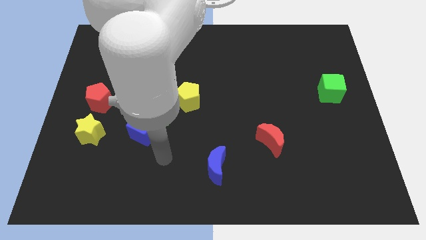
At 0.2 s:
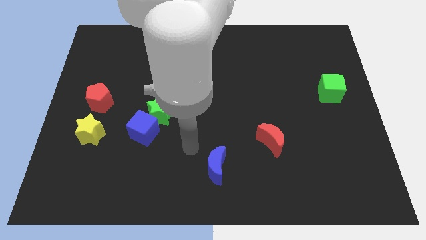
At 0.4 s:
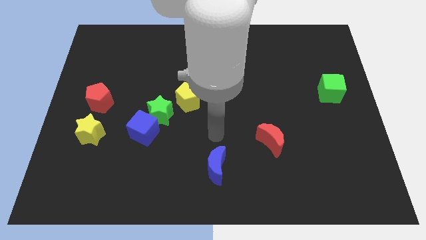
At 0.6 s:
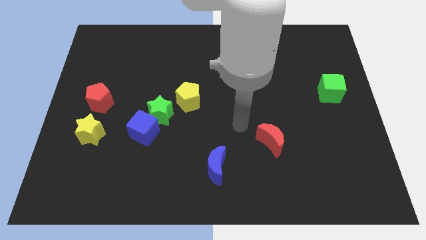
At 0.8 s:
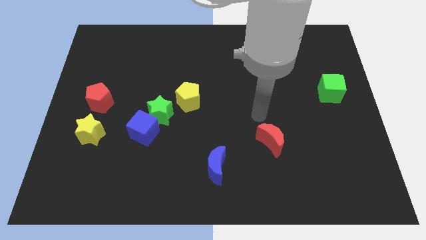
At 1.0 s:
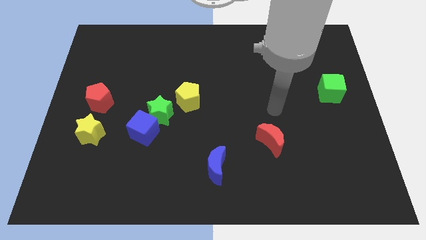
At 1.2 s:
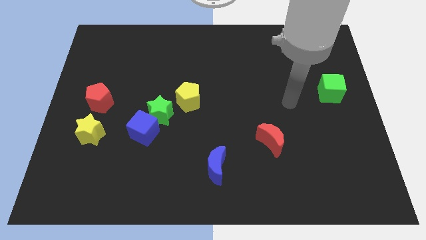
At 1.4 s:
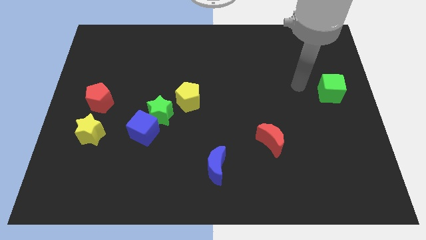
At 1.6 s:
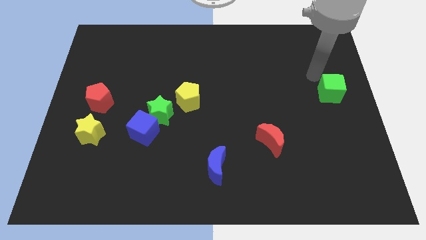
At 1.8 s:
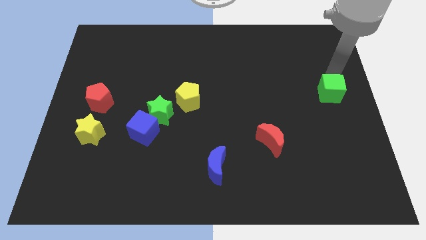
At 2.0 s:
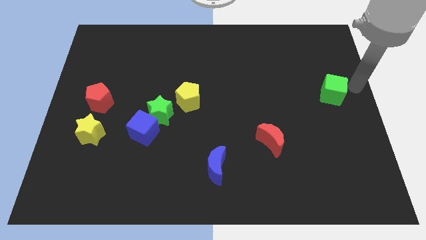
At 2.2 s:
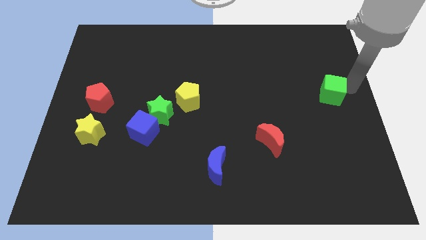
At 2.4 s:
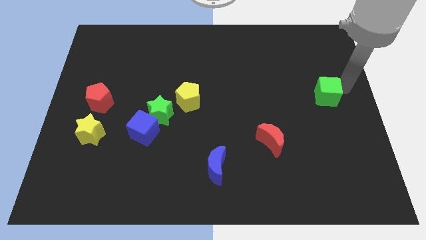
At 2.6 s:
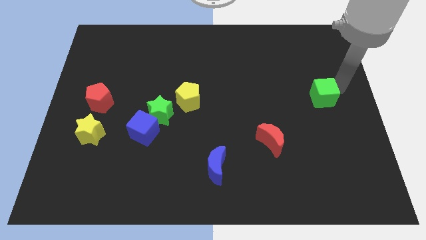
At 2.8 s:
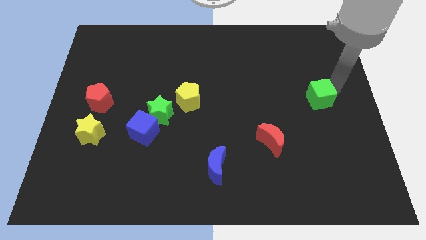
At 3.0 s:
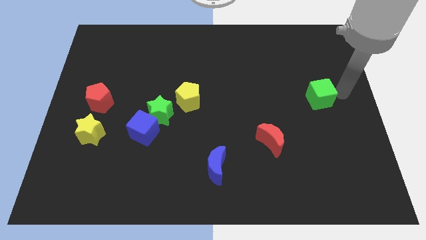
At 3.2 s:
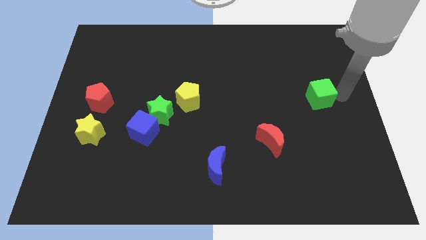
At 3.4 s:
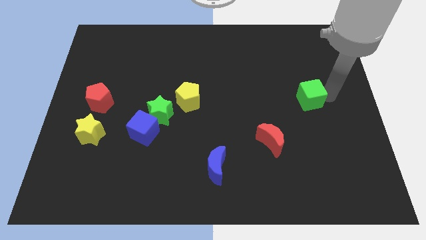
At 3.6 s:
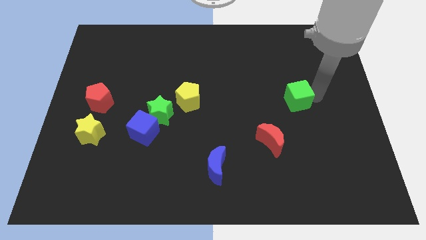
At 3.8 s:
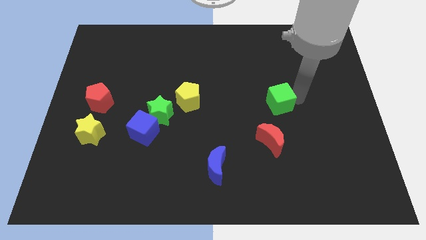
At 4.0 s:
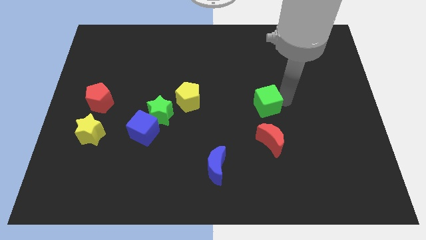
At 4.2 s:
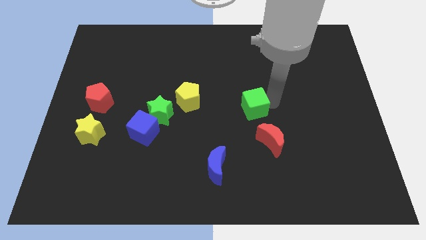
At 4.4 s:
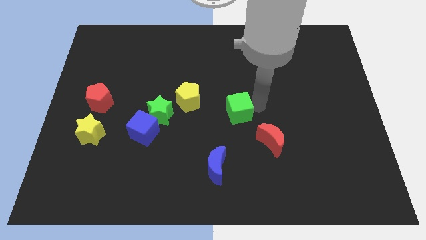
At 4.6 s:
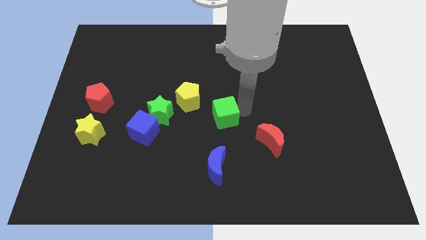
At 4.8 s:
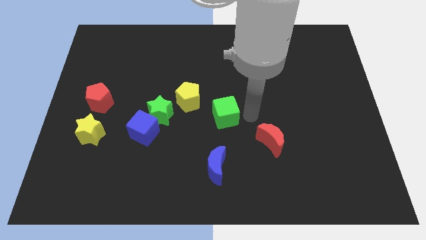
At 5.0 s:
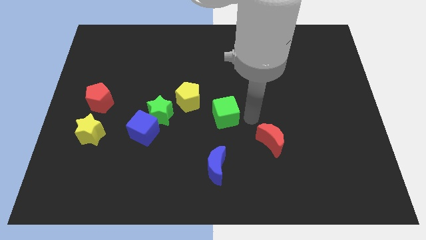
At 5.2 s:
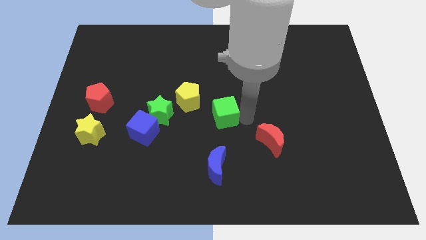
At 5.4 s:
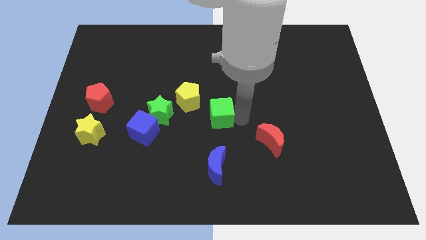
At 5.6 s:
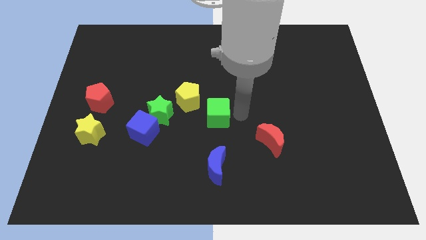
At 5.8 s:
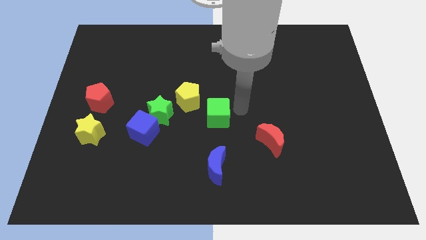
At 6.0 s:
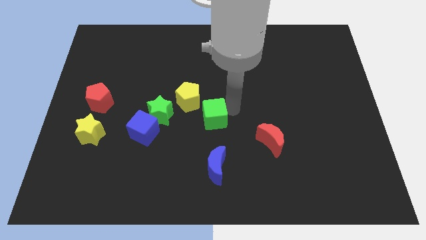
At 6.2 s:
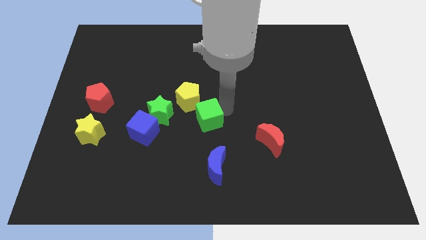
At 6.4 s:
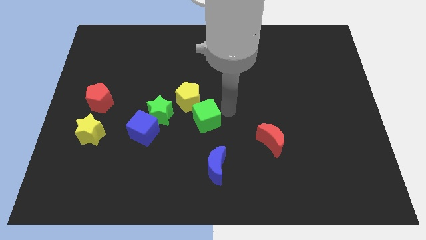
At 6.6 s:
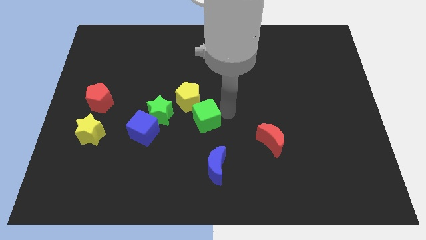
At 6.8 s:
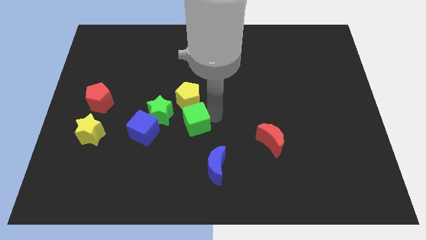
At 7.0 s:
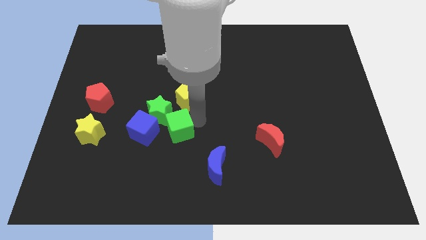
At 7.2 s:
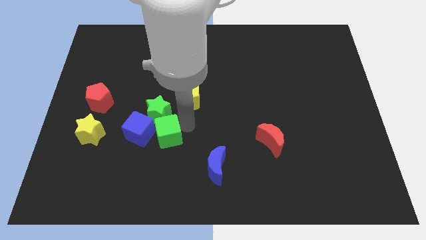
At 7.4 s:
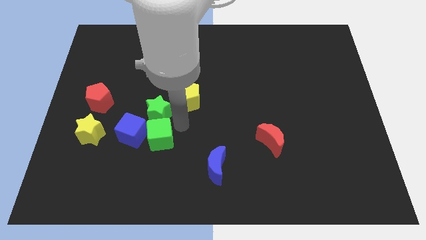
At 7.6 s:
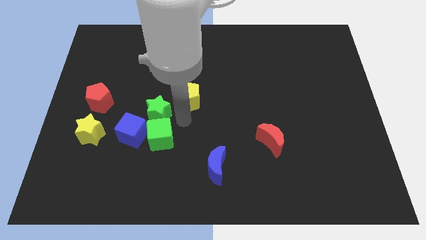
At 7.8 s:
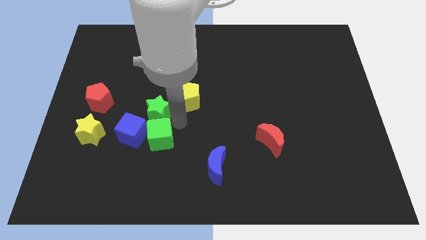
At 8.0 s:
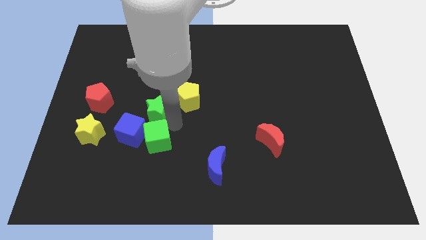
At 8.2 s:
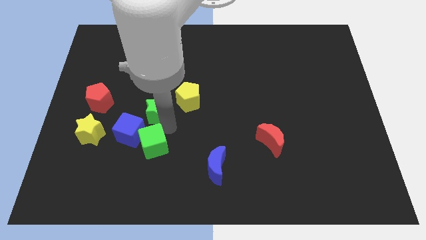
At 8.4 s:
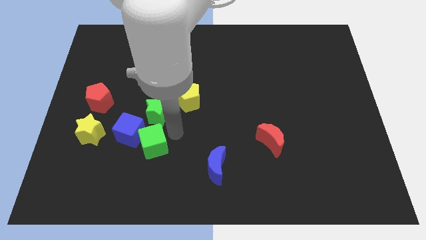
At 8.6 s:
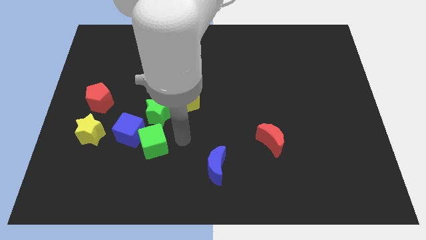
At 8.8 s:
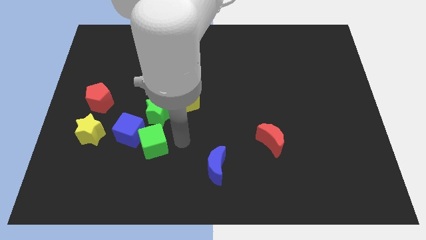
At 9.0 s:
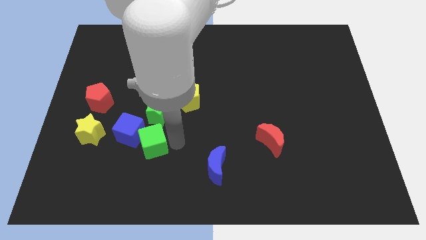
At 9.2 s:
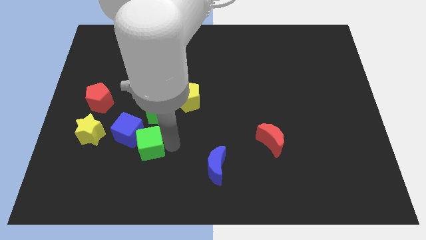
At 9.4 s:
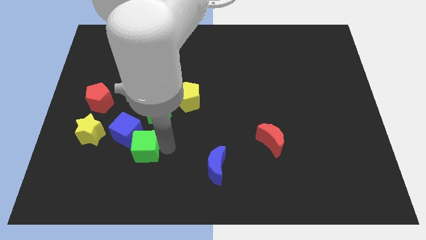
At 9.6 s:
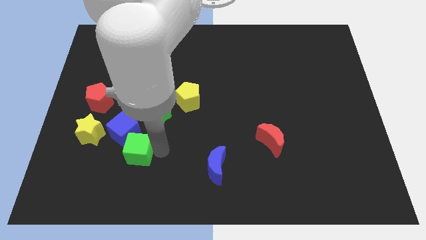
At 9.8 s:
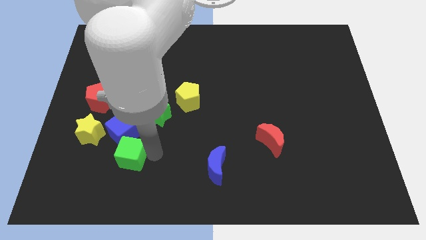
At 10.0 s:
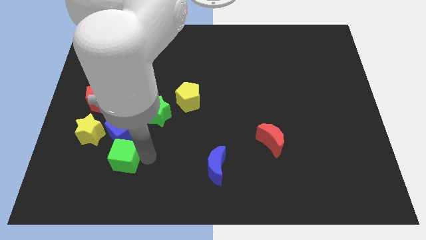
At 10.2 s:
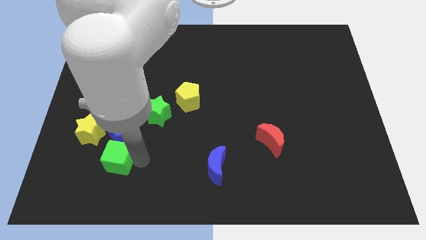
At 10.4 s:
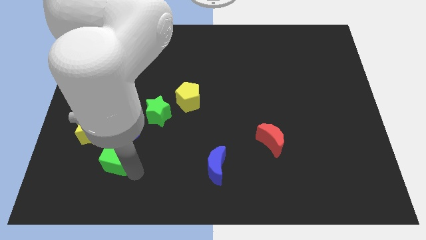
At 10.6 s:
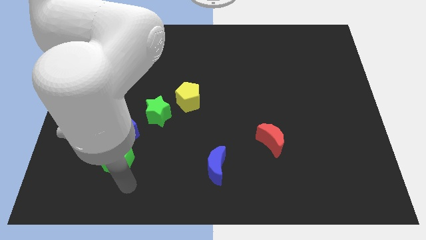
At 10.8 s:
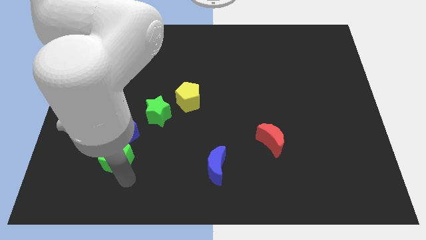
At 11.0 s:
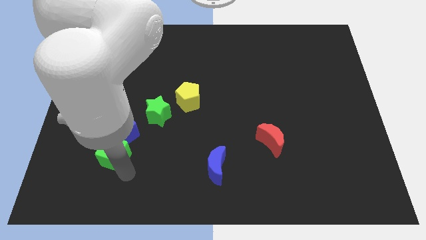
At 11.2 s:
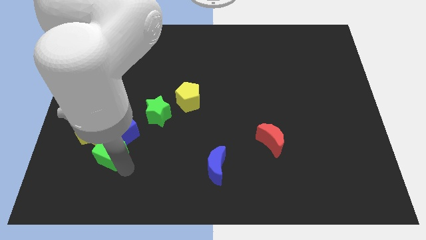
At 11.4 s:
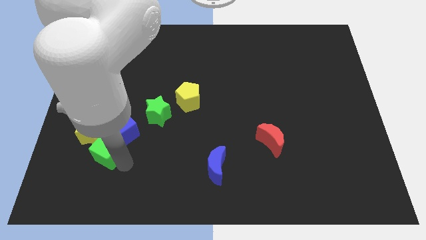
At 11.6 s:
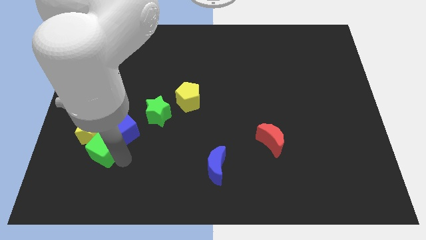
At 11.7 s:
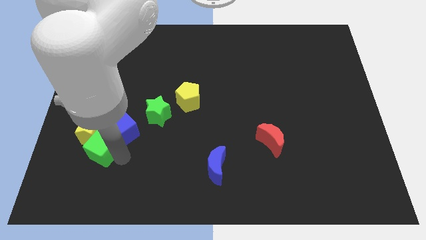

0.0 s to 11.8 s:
slide the green cube close to the yellow star

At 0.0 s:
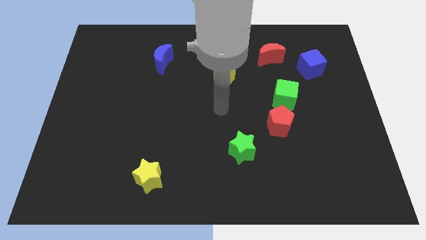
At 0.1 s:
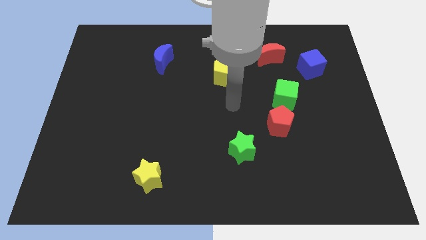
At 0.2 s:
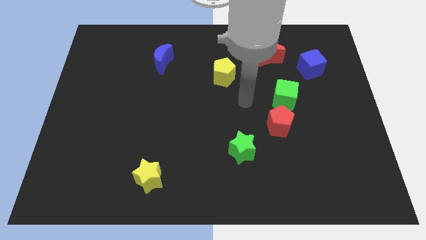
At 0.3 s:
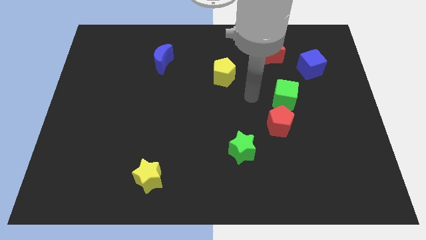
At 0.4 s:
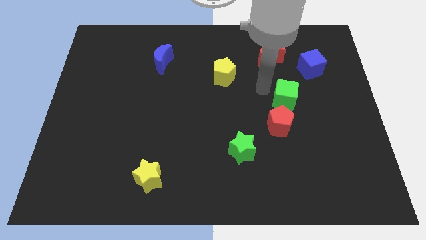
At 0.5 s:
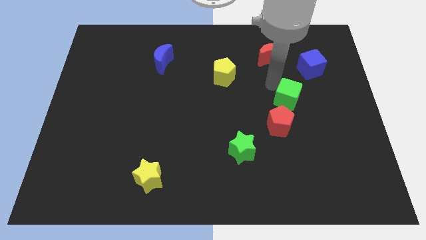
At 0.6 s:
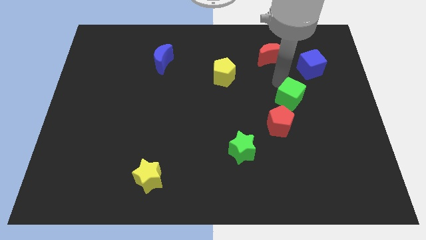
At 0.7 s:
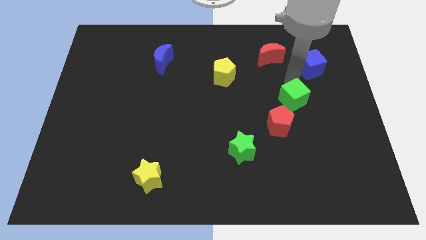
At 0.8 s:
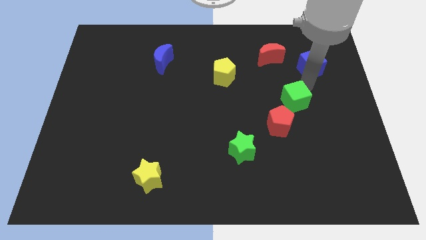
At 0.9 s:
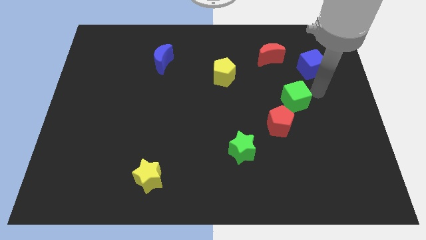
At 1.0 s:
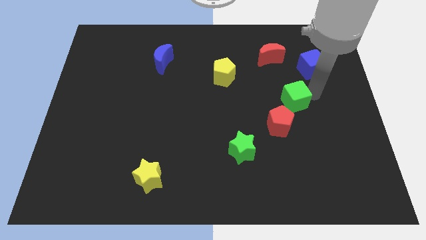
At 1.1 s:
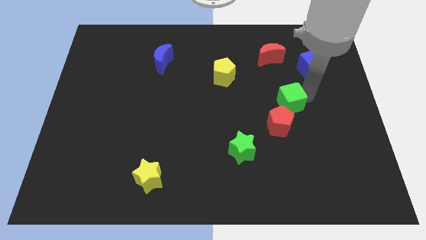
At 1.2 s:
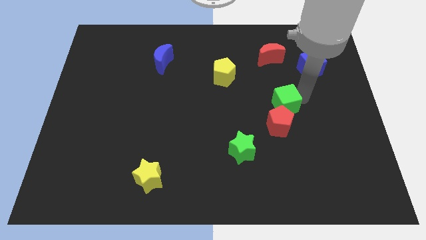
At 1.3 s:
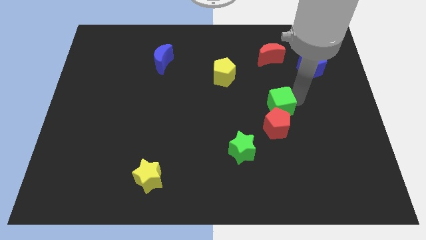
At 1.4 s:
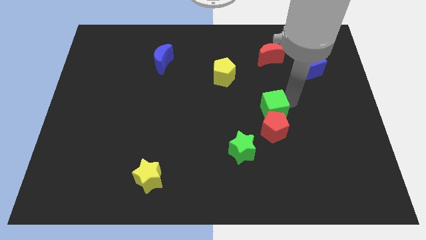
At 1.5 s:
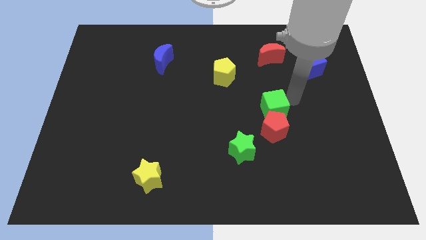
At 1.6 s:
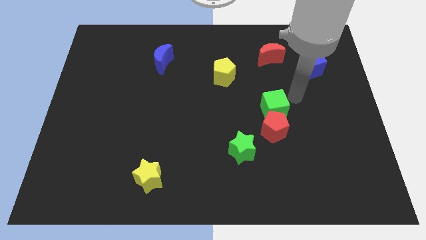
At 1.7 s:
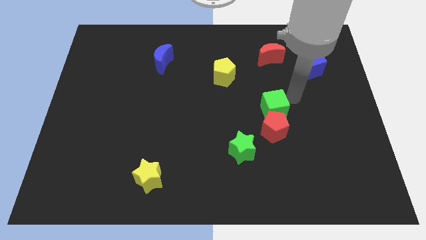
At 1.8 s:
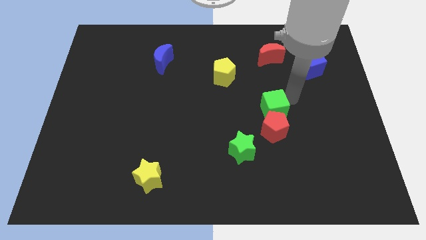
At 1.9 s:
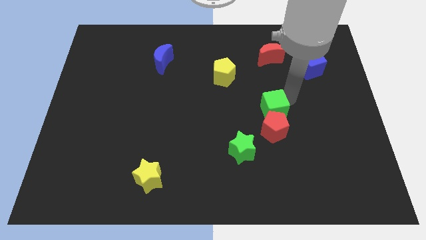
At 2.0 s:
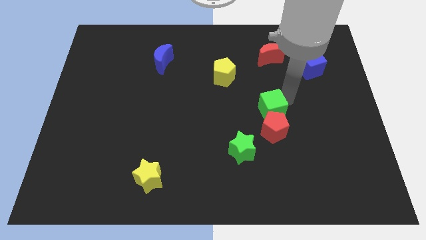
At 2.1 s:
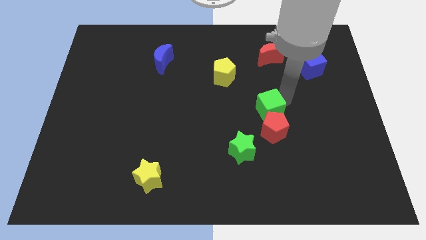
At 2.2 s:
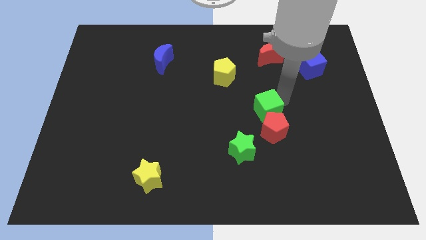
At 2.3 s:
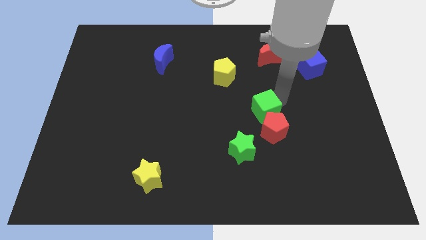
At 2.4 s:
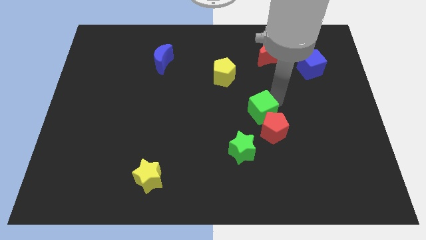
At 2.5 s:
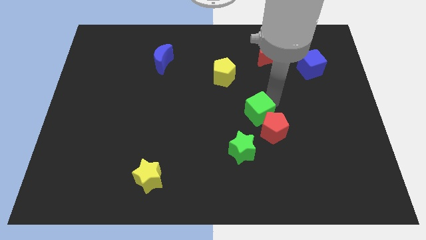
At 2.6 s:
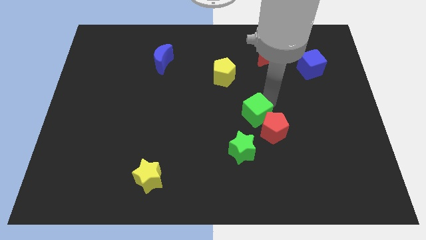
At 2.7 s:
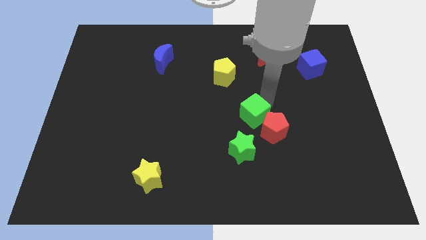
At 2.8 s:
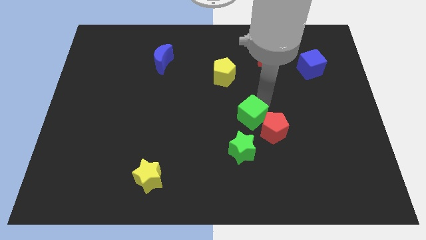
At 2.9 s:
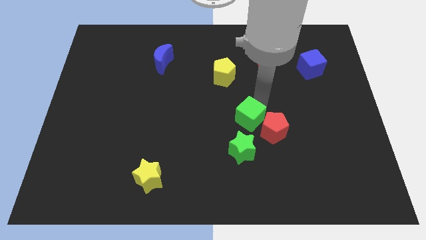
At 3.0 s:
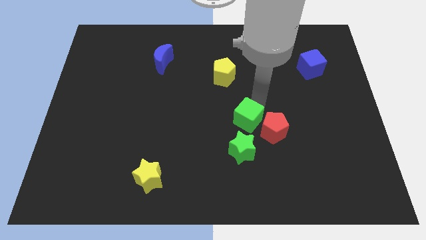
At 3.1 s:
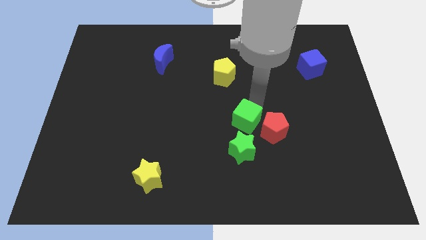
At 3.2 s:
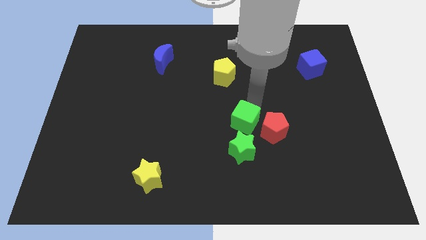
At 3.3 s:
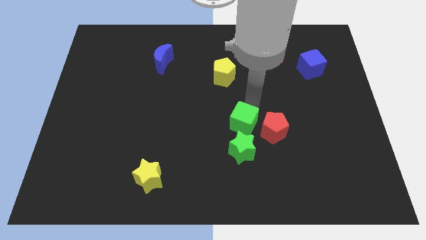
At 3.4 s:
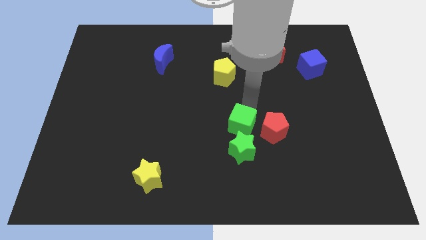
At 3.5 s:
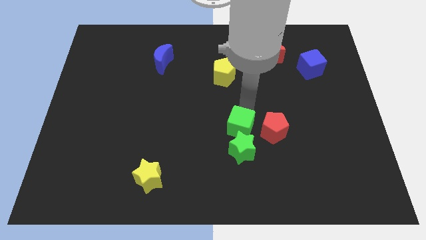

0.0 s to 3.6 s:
slide the green cube next to the green star
